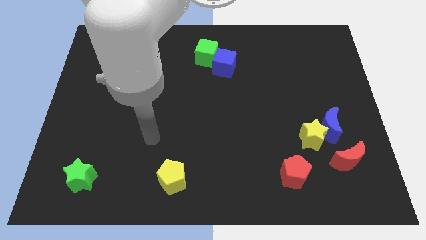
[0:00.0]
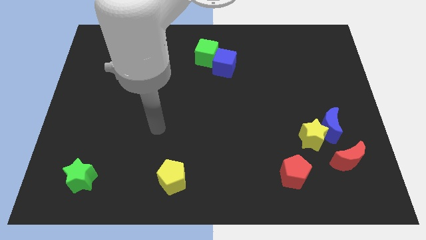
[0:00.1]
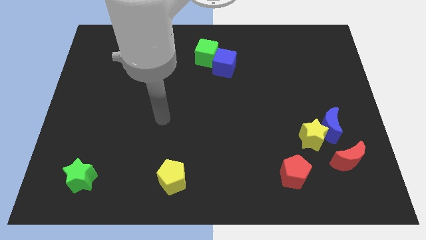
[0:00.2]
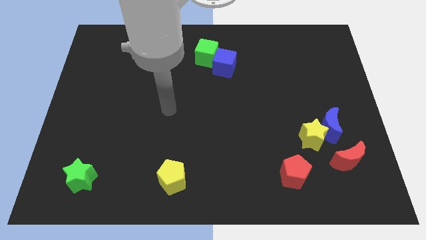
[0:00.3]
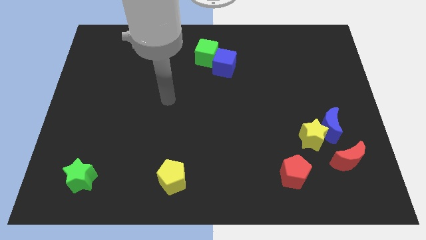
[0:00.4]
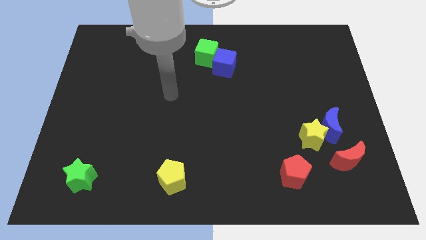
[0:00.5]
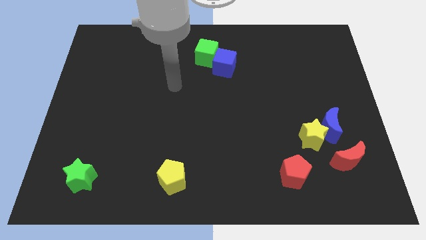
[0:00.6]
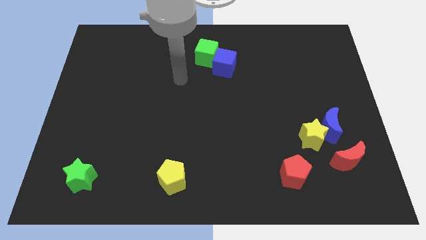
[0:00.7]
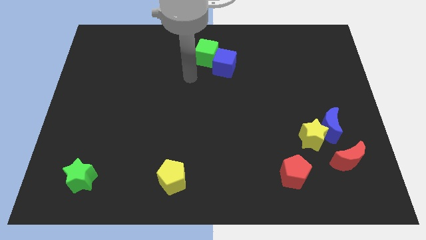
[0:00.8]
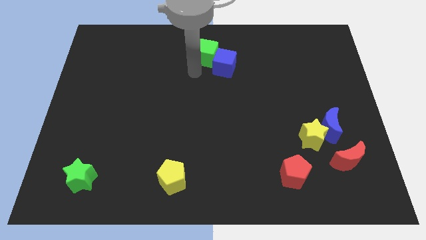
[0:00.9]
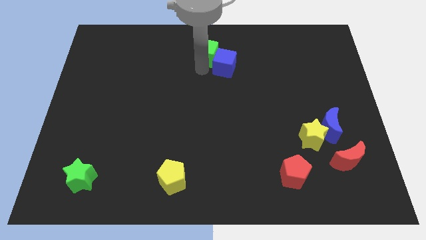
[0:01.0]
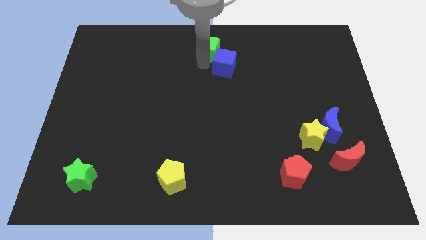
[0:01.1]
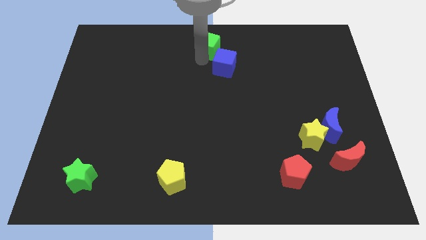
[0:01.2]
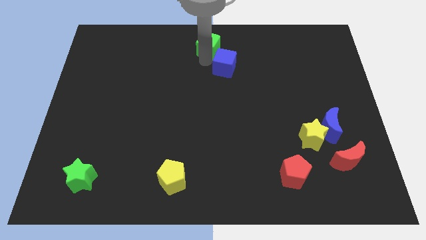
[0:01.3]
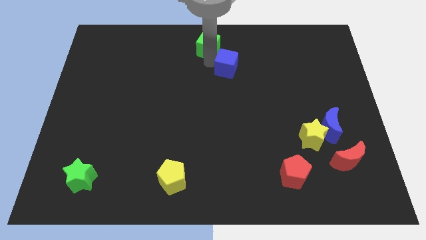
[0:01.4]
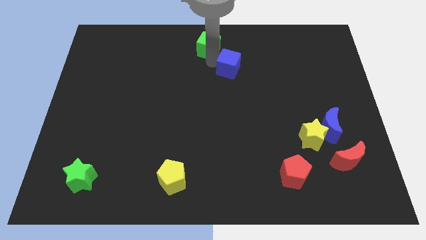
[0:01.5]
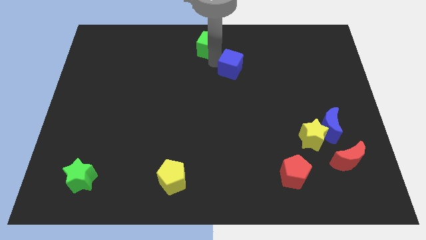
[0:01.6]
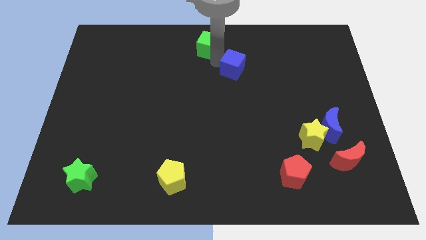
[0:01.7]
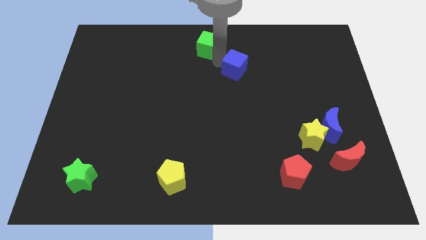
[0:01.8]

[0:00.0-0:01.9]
separate the blue cube from the green cube

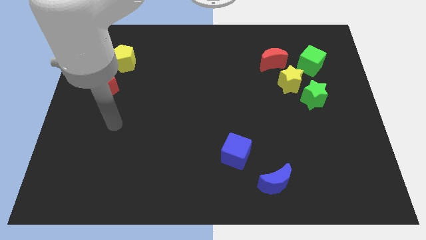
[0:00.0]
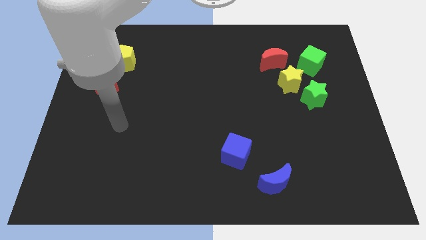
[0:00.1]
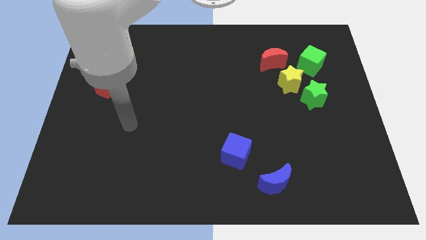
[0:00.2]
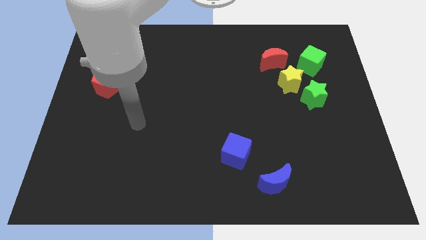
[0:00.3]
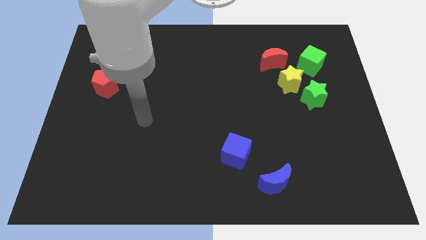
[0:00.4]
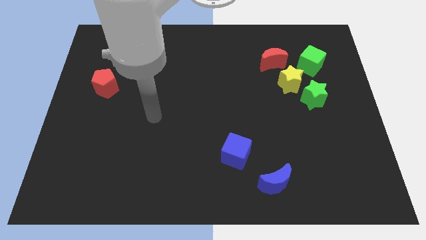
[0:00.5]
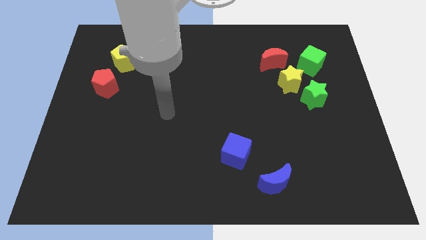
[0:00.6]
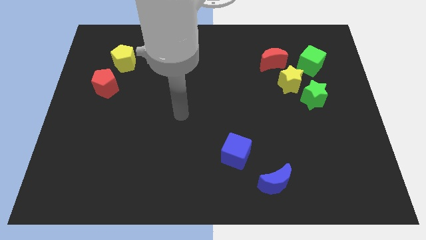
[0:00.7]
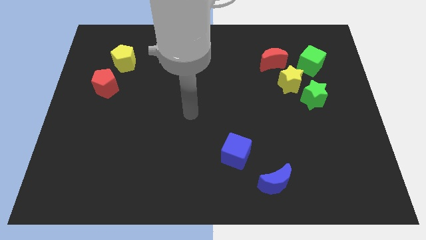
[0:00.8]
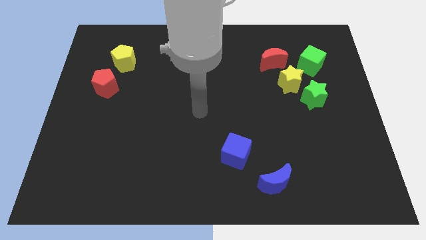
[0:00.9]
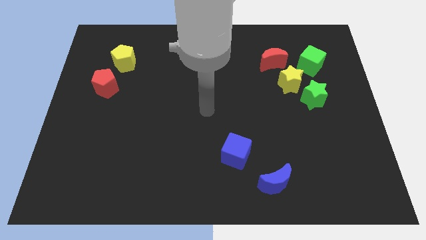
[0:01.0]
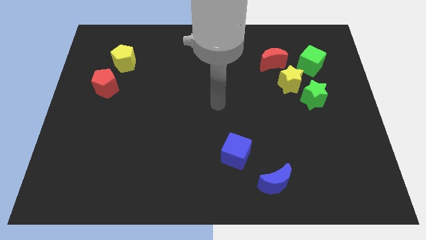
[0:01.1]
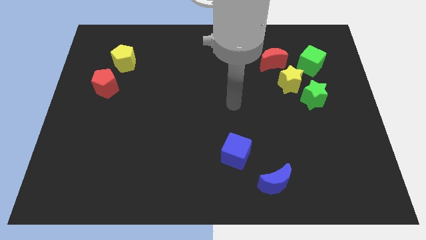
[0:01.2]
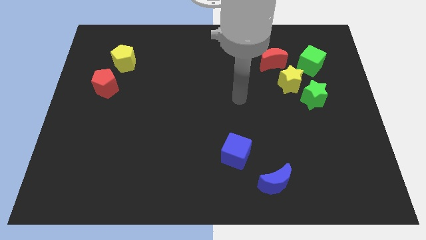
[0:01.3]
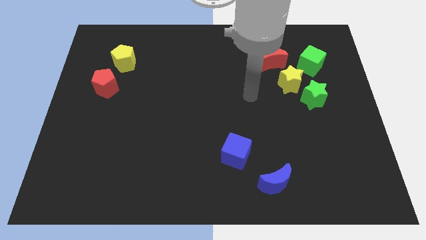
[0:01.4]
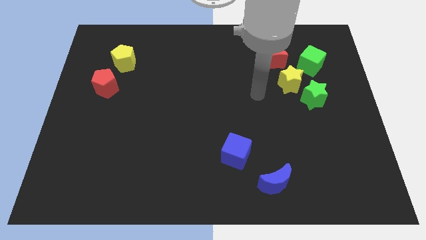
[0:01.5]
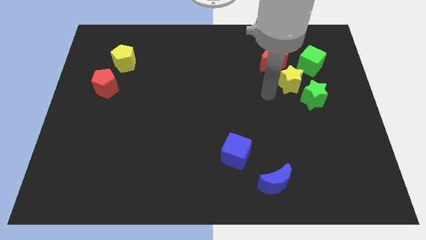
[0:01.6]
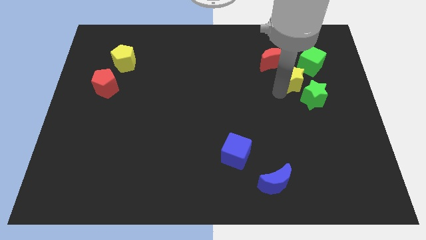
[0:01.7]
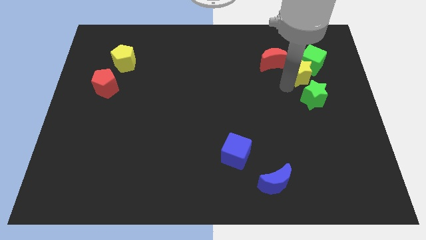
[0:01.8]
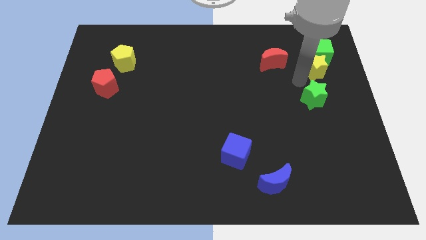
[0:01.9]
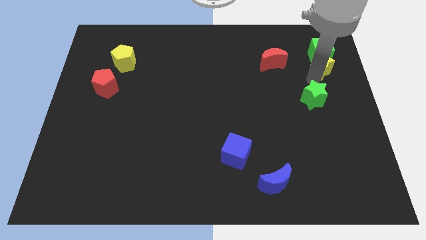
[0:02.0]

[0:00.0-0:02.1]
pull the green star apart from the yellow star

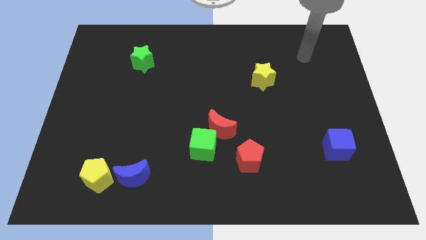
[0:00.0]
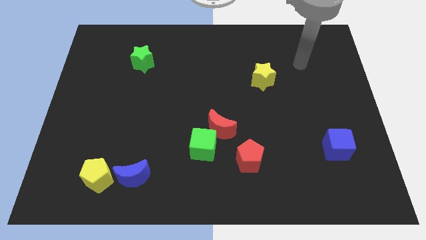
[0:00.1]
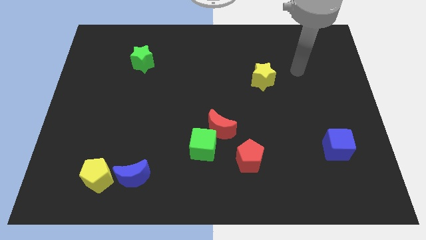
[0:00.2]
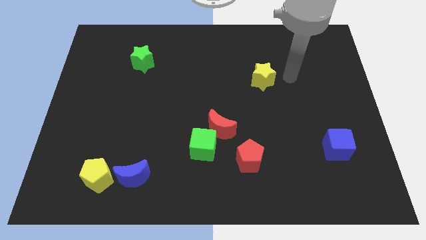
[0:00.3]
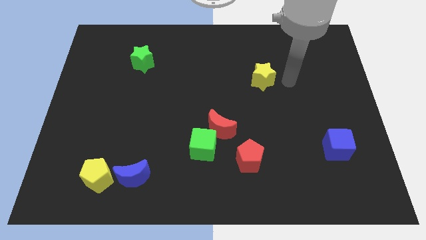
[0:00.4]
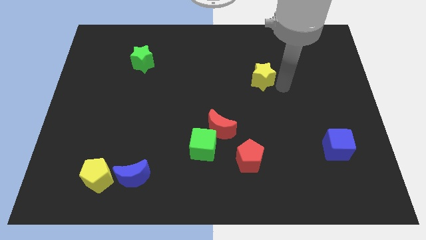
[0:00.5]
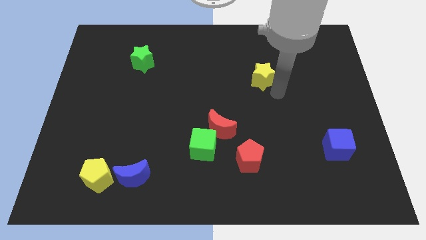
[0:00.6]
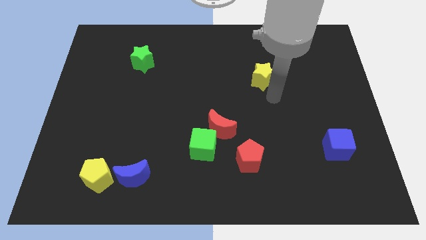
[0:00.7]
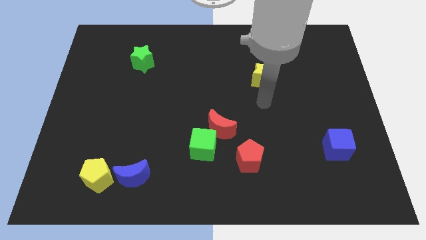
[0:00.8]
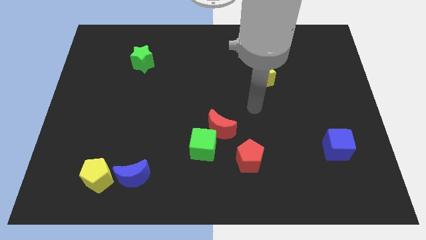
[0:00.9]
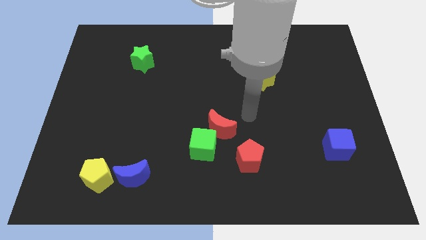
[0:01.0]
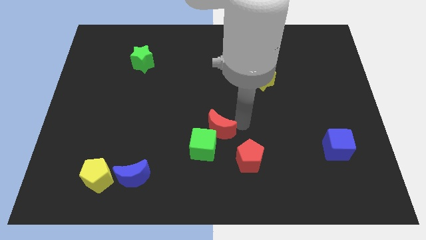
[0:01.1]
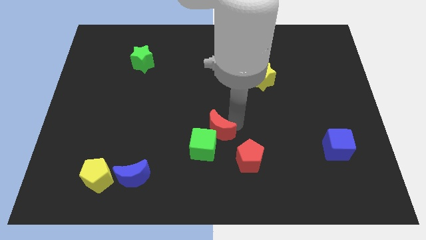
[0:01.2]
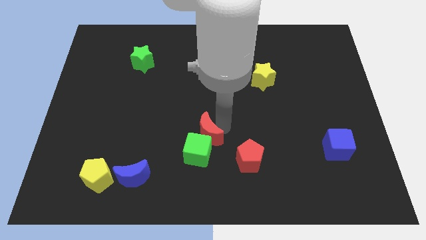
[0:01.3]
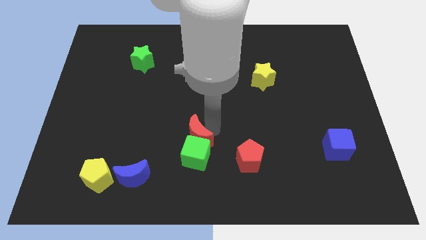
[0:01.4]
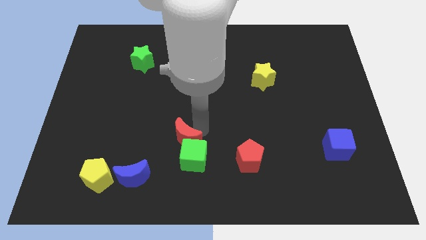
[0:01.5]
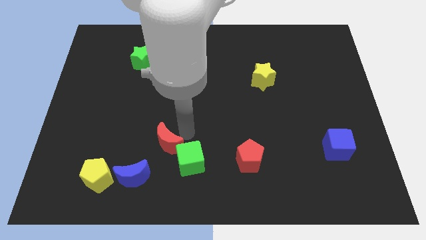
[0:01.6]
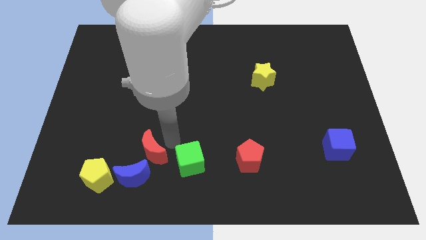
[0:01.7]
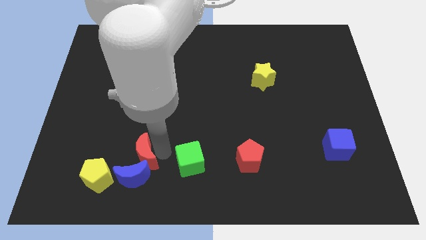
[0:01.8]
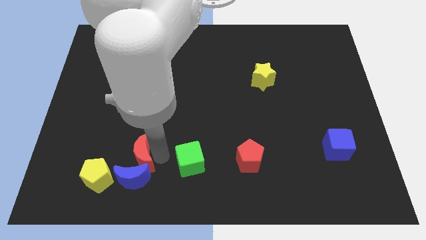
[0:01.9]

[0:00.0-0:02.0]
pull the green cube apart from the red moon

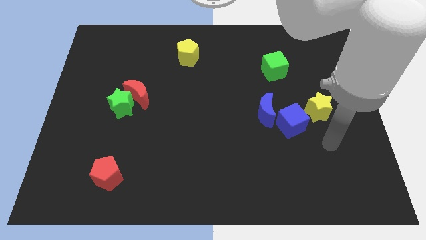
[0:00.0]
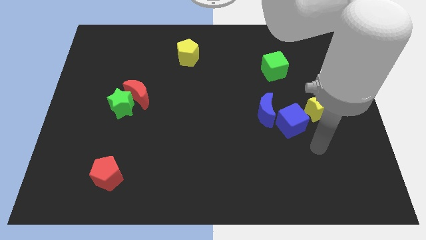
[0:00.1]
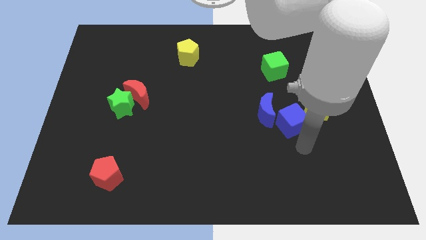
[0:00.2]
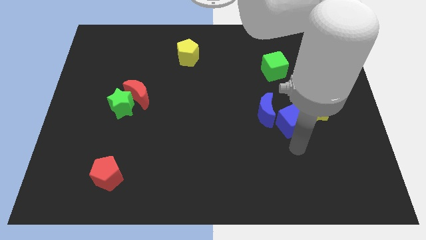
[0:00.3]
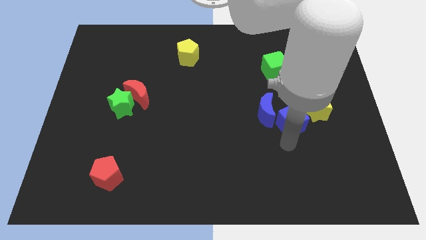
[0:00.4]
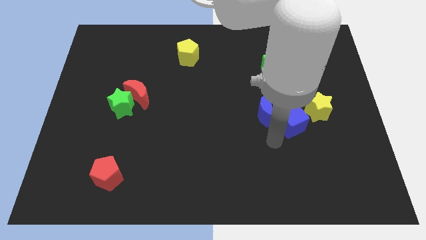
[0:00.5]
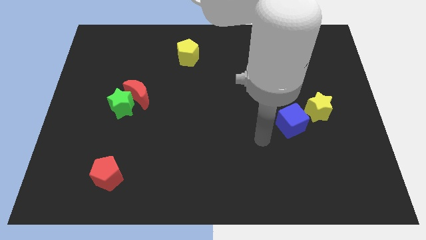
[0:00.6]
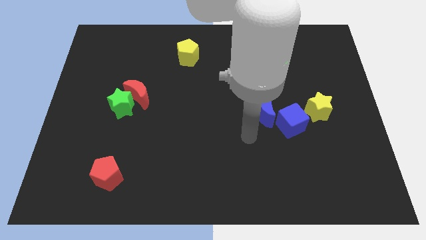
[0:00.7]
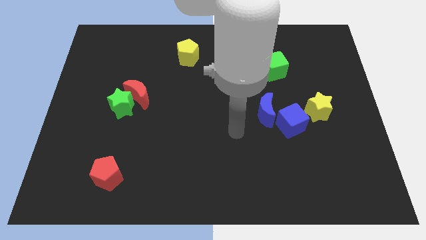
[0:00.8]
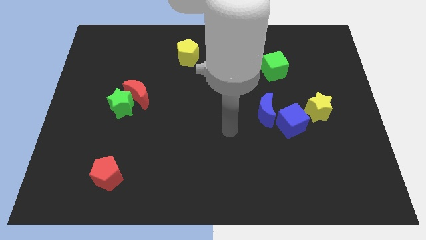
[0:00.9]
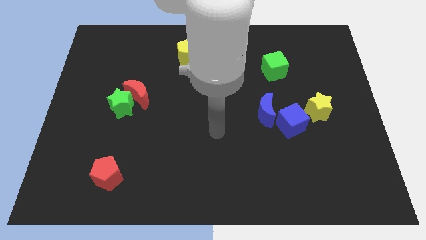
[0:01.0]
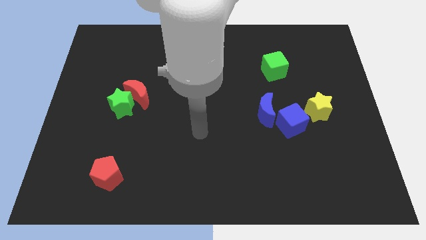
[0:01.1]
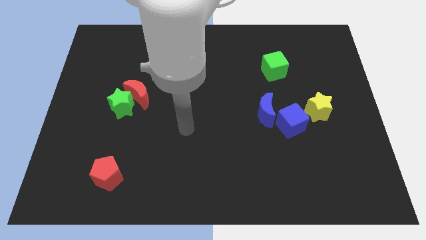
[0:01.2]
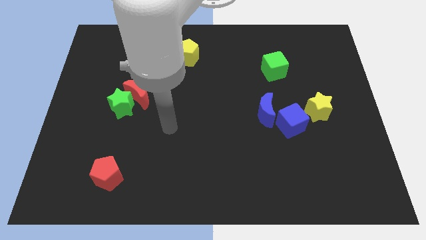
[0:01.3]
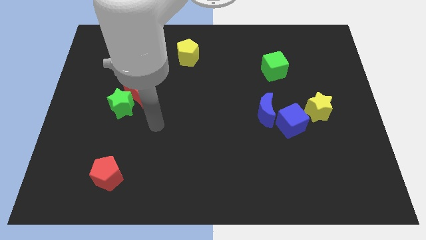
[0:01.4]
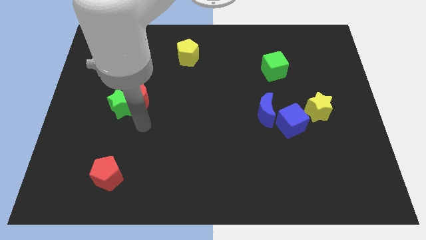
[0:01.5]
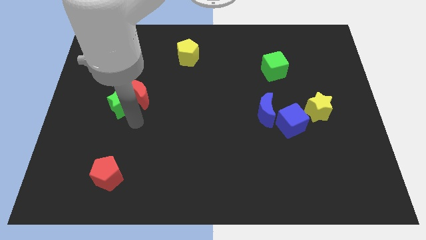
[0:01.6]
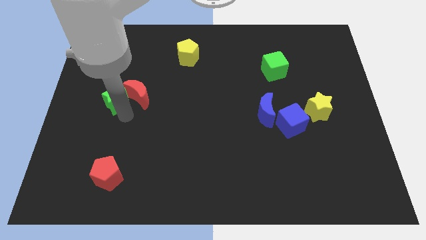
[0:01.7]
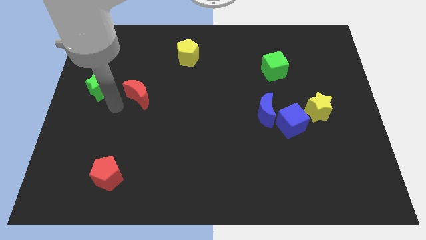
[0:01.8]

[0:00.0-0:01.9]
pull the red moon apart from the green star

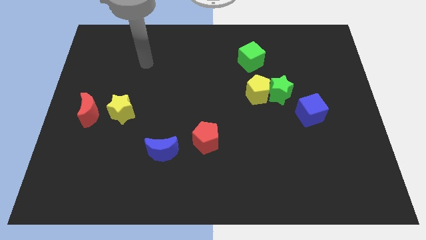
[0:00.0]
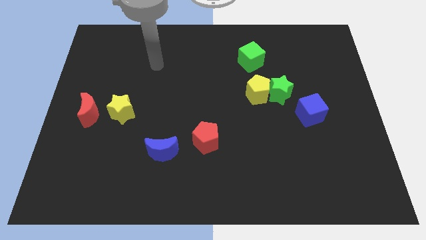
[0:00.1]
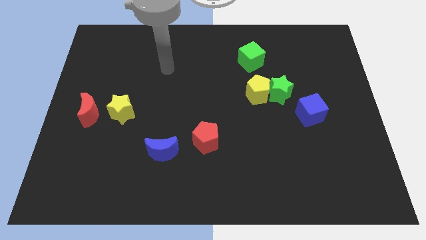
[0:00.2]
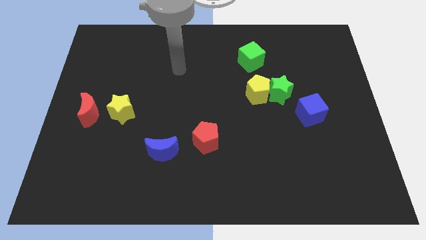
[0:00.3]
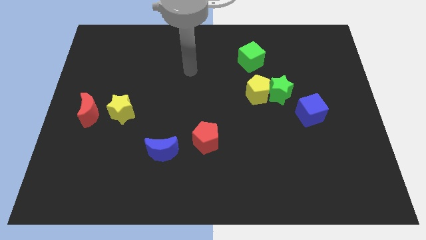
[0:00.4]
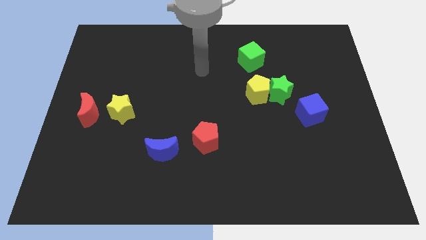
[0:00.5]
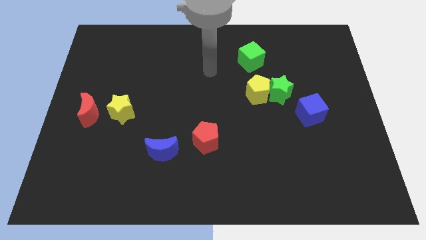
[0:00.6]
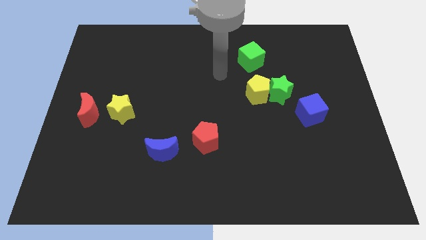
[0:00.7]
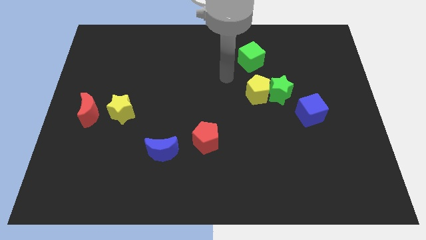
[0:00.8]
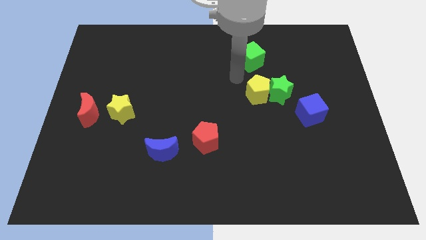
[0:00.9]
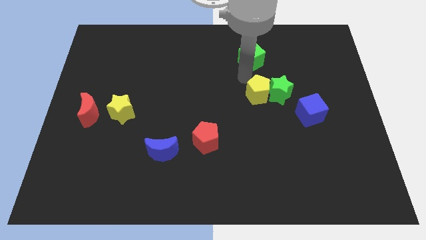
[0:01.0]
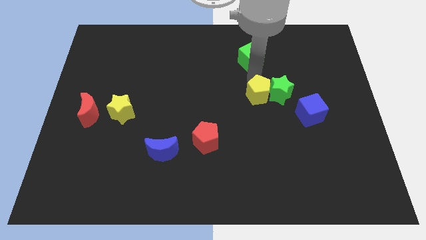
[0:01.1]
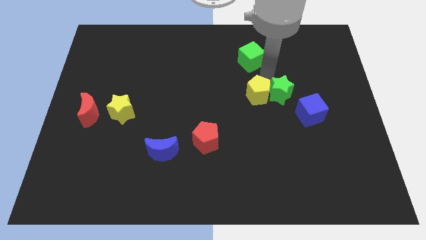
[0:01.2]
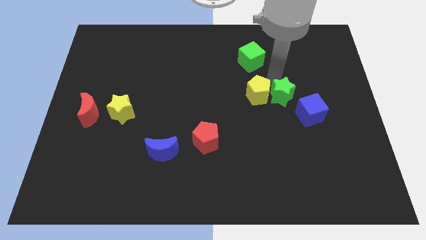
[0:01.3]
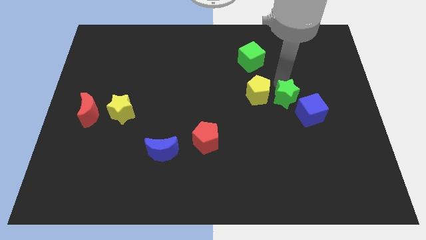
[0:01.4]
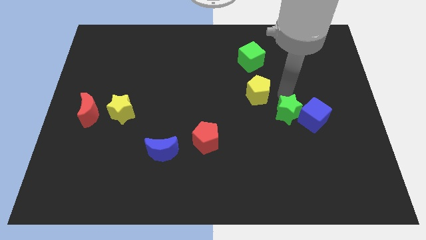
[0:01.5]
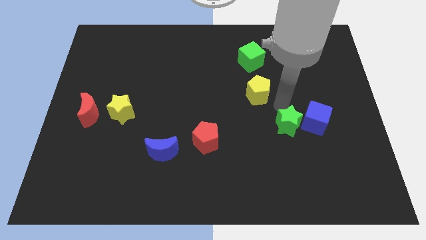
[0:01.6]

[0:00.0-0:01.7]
move the yellow pentagon away from the green star
